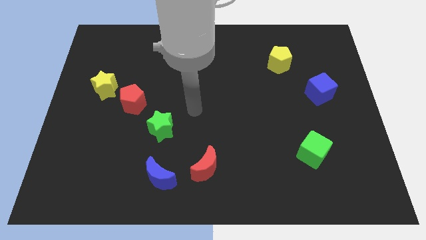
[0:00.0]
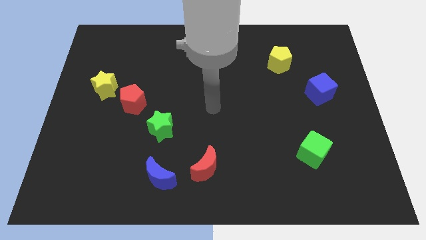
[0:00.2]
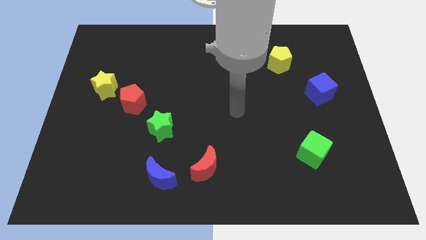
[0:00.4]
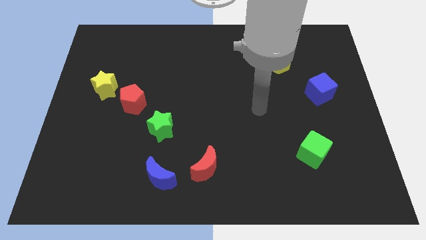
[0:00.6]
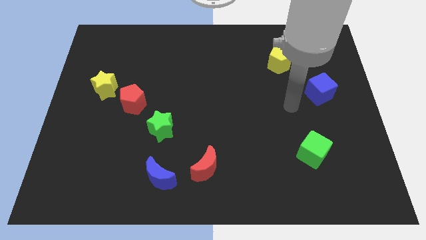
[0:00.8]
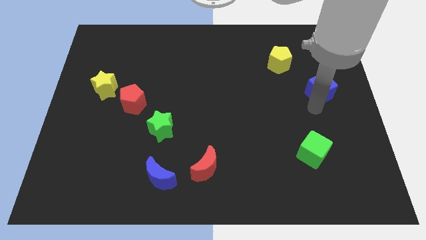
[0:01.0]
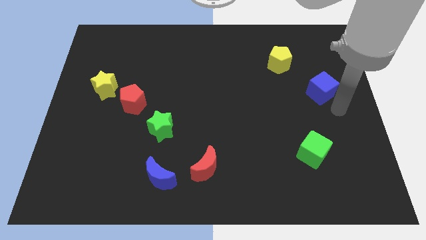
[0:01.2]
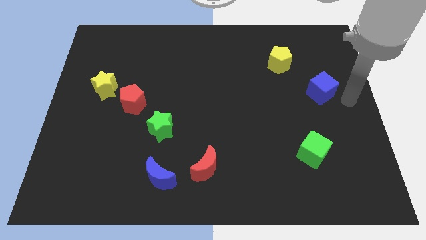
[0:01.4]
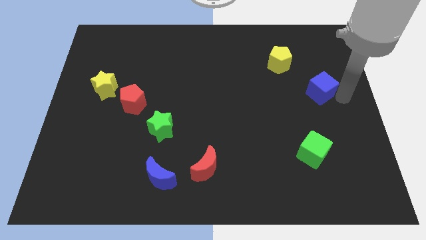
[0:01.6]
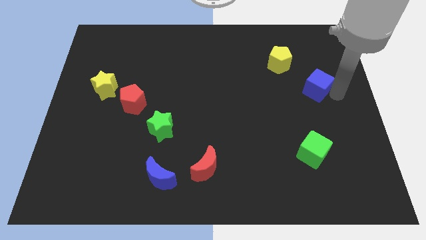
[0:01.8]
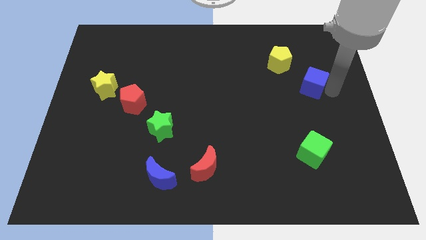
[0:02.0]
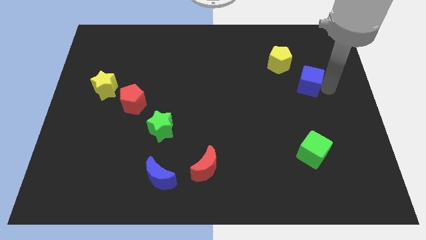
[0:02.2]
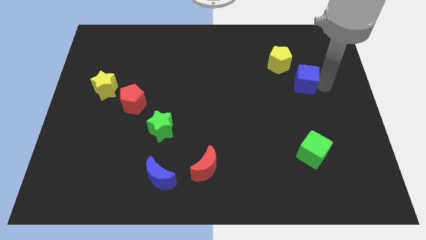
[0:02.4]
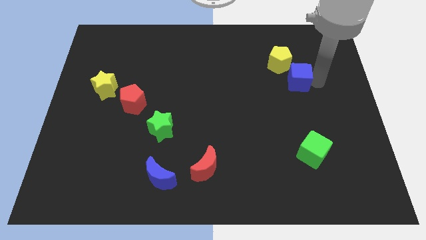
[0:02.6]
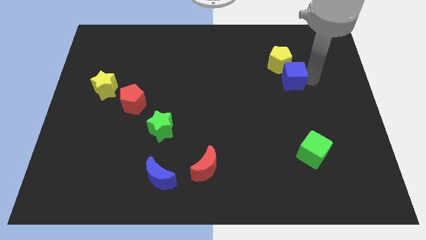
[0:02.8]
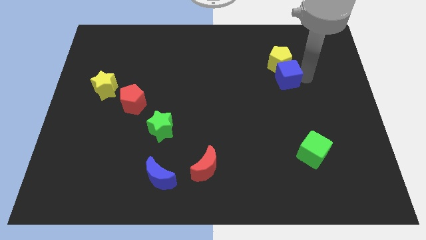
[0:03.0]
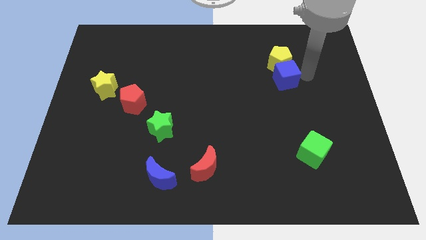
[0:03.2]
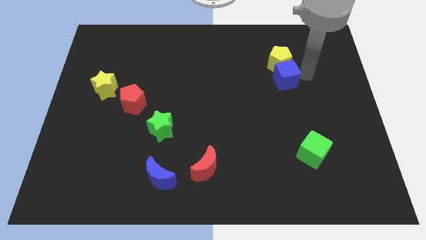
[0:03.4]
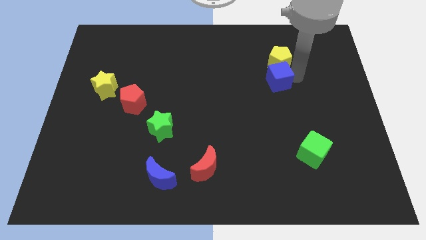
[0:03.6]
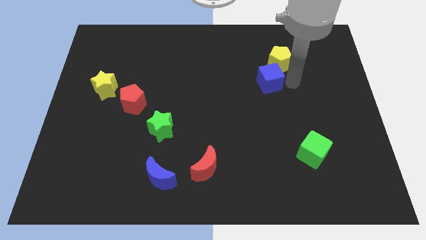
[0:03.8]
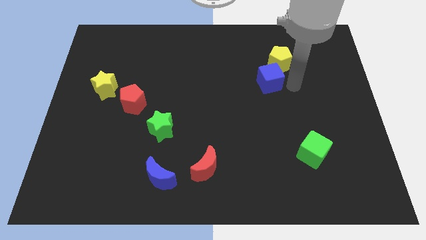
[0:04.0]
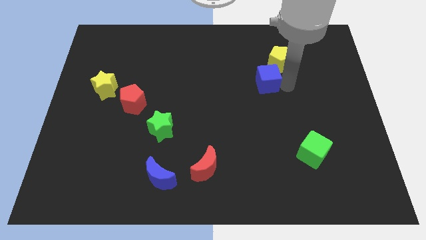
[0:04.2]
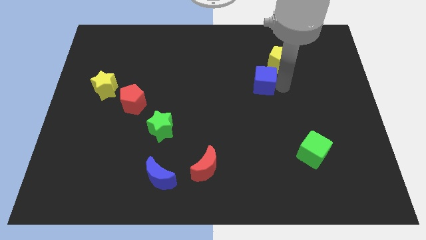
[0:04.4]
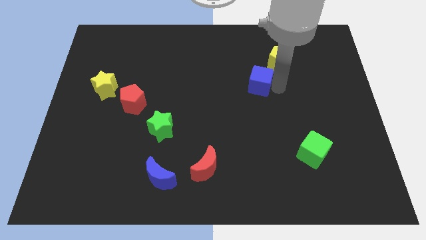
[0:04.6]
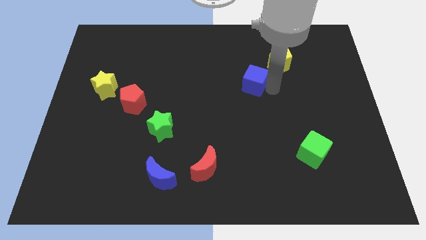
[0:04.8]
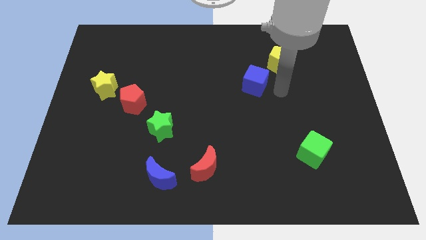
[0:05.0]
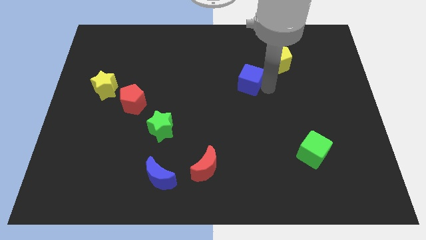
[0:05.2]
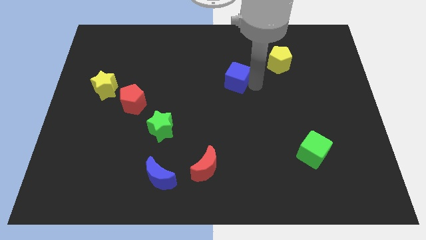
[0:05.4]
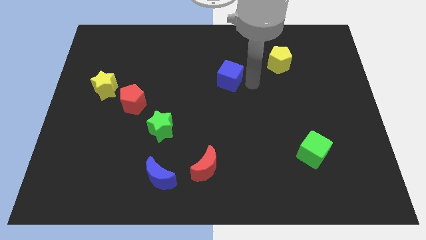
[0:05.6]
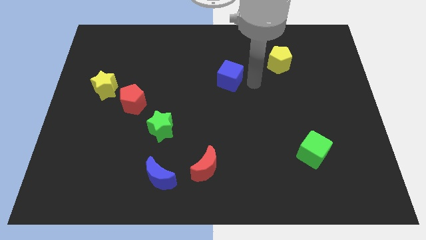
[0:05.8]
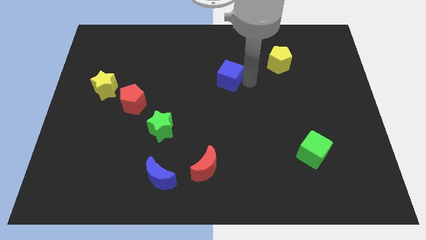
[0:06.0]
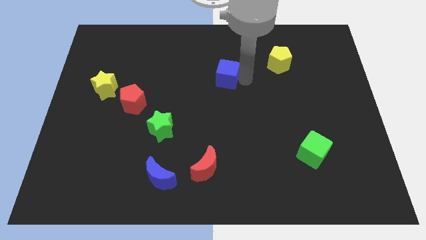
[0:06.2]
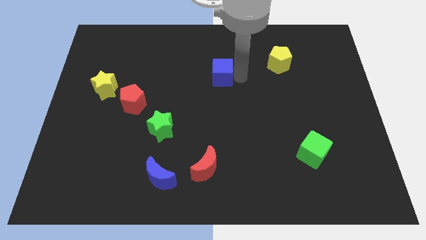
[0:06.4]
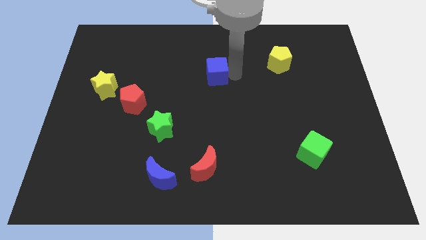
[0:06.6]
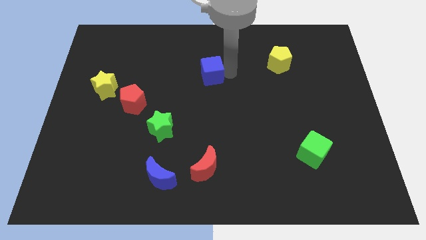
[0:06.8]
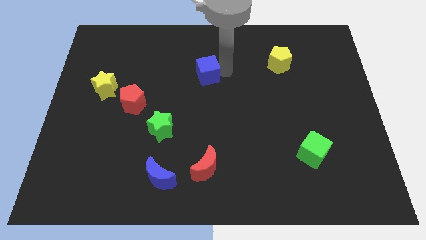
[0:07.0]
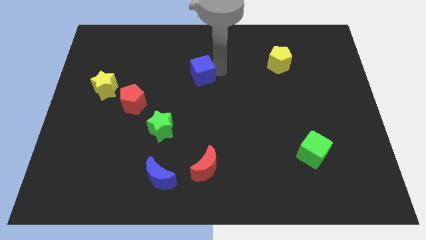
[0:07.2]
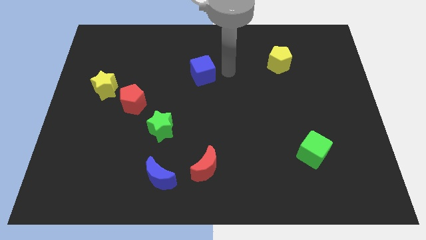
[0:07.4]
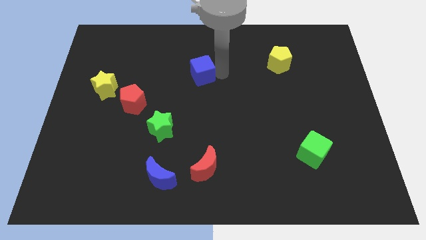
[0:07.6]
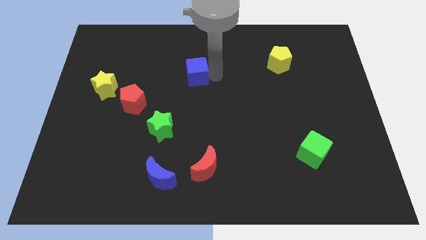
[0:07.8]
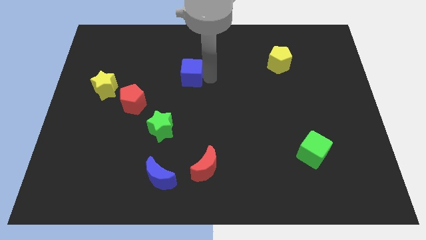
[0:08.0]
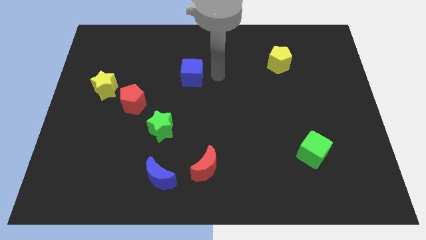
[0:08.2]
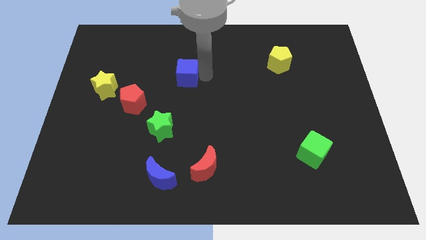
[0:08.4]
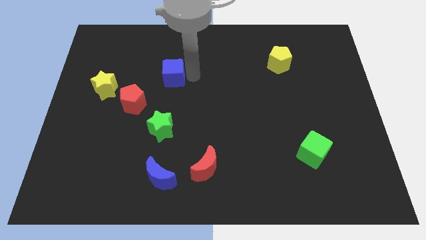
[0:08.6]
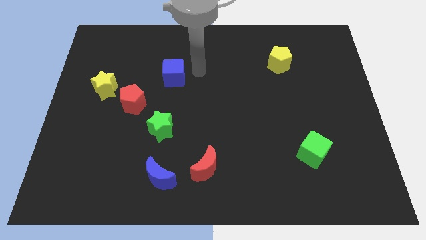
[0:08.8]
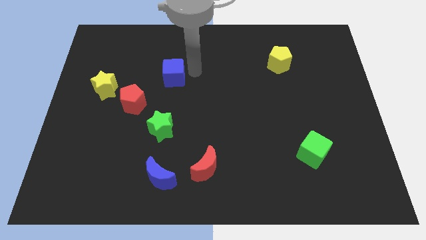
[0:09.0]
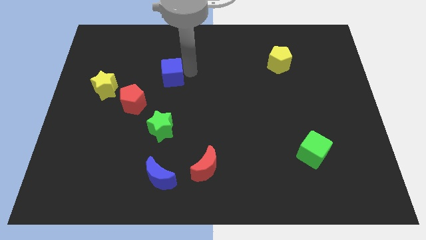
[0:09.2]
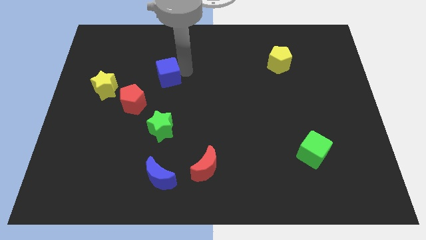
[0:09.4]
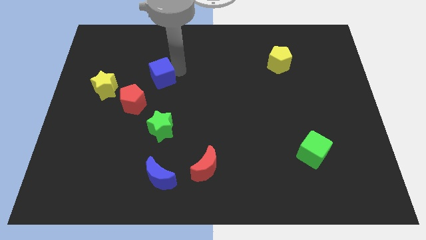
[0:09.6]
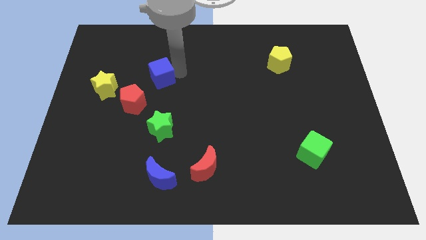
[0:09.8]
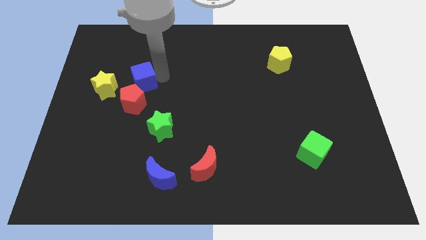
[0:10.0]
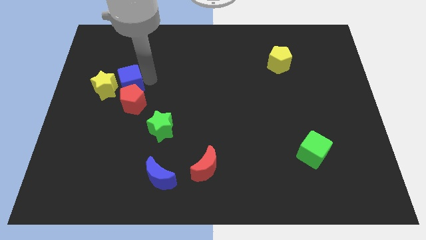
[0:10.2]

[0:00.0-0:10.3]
put the blue cube next to the yellow star

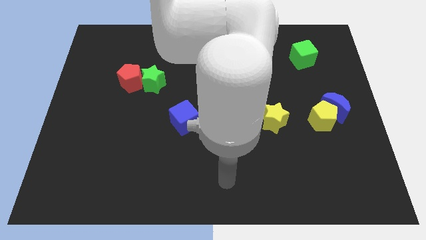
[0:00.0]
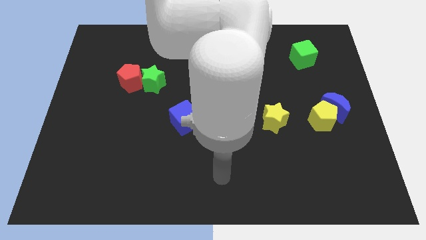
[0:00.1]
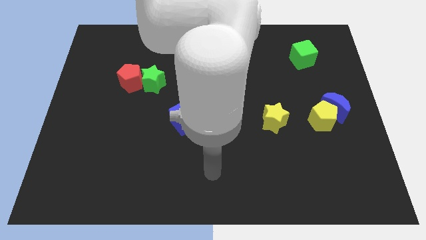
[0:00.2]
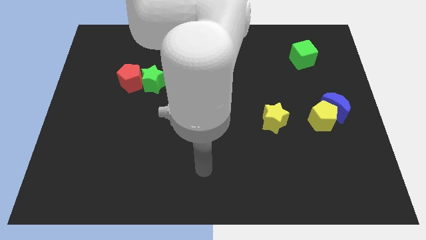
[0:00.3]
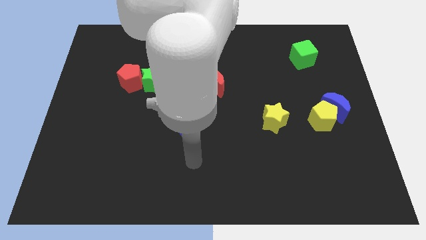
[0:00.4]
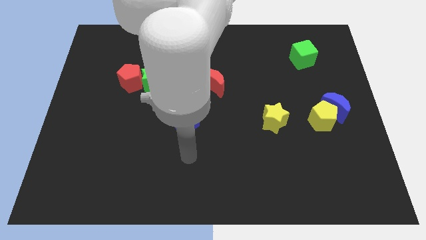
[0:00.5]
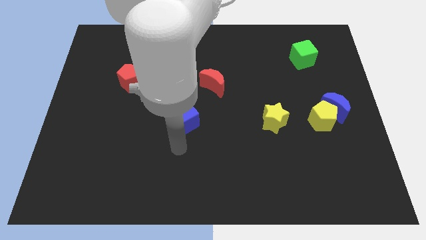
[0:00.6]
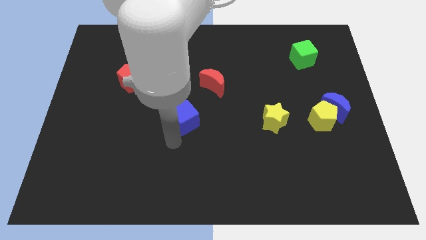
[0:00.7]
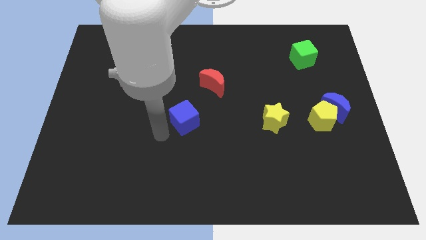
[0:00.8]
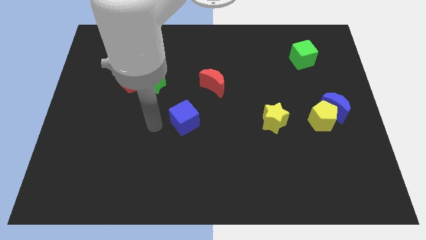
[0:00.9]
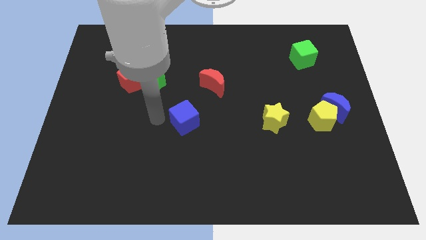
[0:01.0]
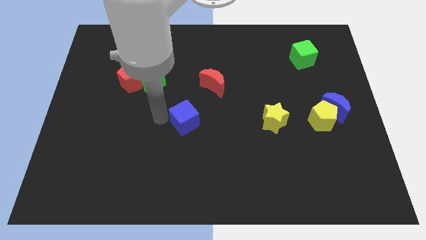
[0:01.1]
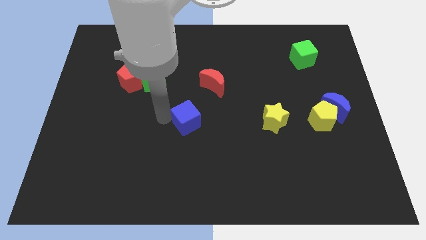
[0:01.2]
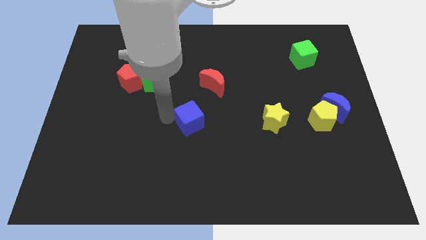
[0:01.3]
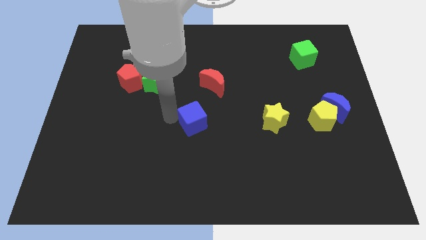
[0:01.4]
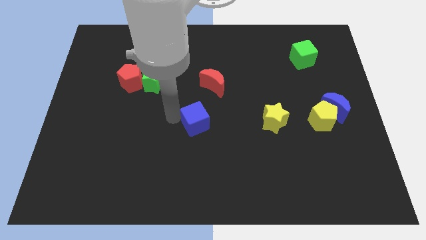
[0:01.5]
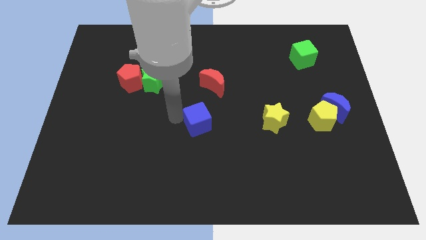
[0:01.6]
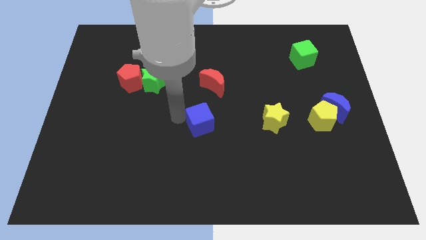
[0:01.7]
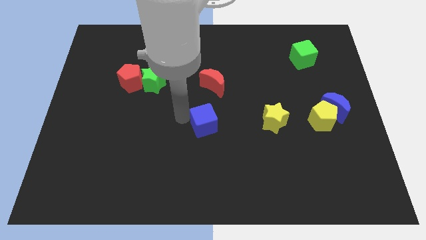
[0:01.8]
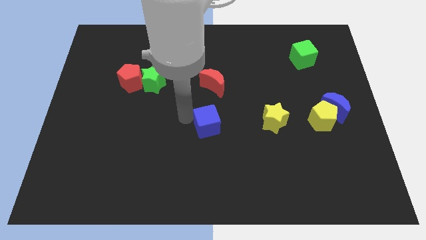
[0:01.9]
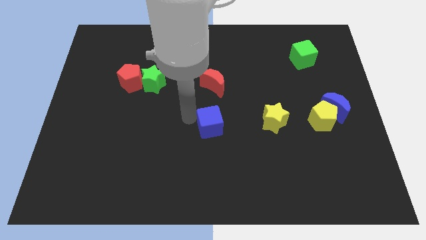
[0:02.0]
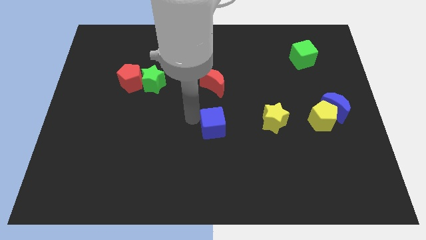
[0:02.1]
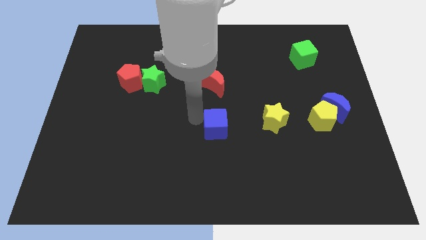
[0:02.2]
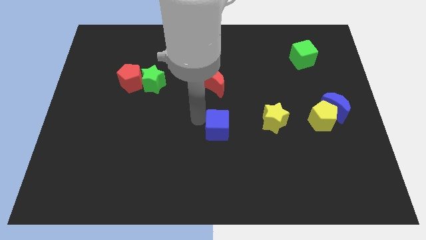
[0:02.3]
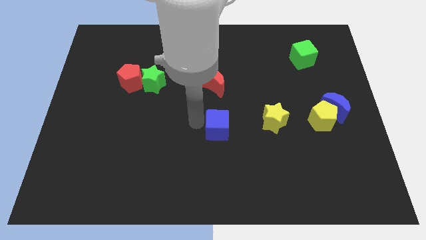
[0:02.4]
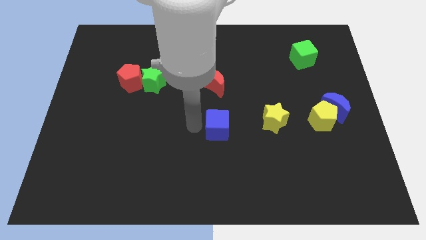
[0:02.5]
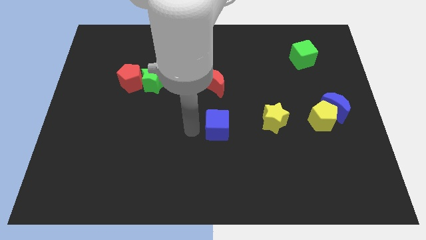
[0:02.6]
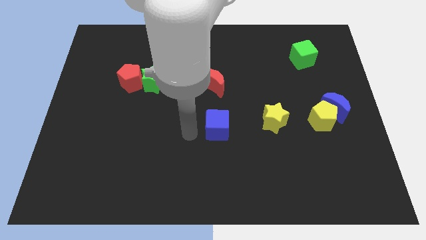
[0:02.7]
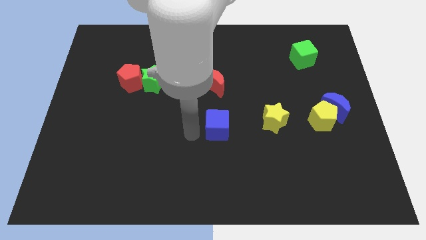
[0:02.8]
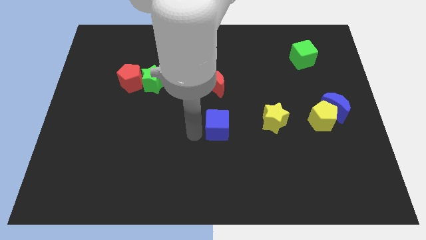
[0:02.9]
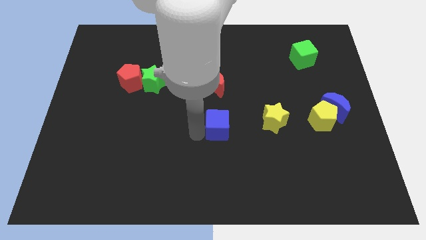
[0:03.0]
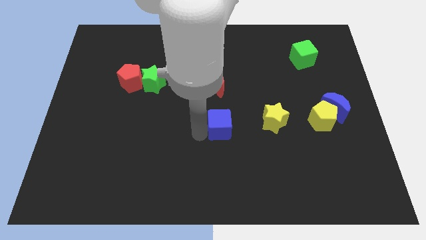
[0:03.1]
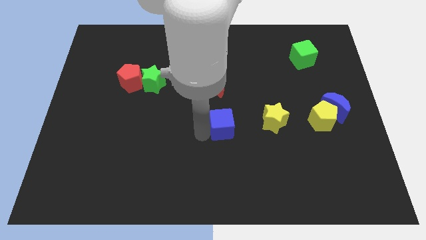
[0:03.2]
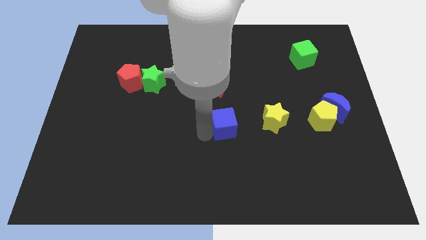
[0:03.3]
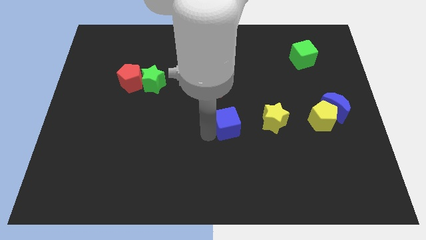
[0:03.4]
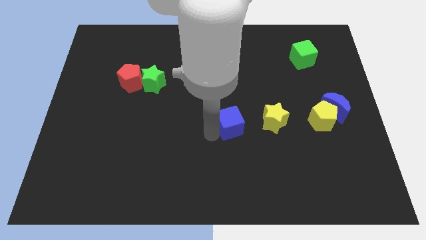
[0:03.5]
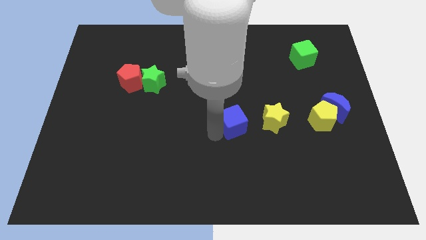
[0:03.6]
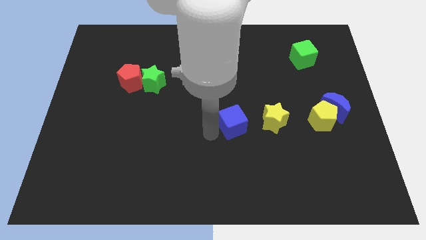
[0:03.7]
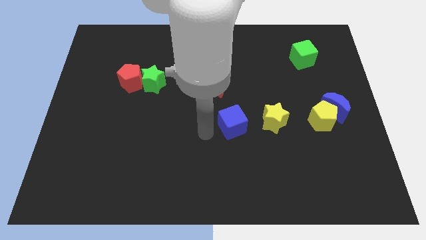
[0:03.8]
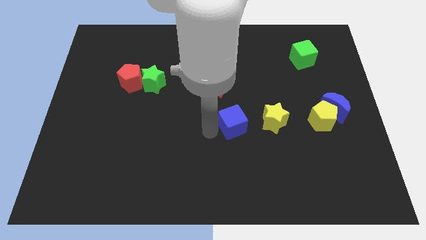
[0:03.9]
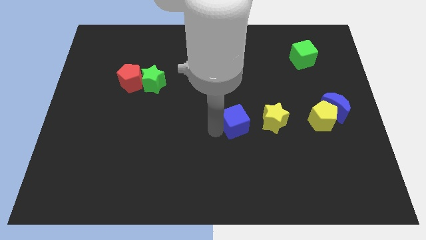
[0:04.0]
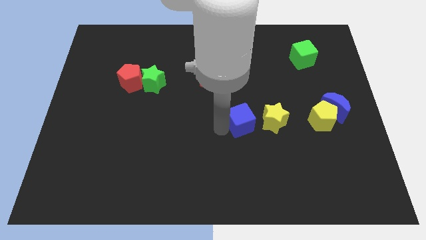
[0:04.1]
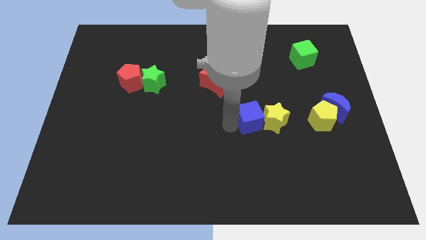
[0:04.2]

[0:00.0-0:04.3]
slide the blue cube to the yellow star
